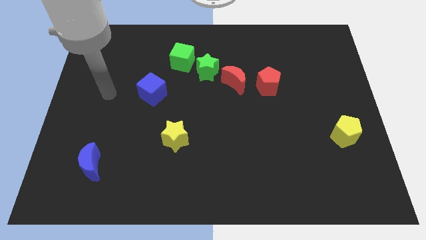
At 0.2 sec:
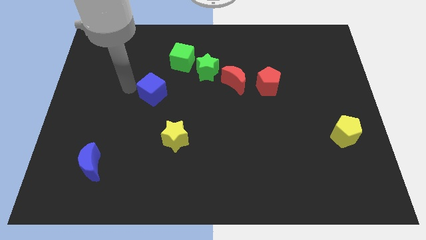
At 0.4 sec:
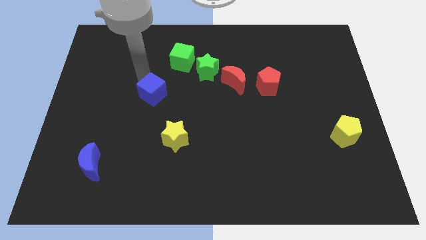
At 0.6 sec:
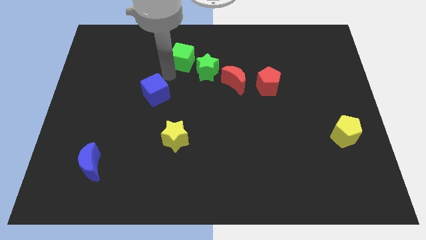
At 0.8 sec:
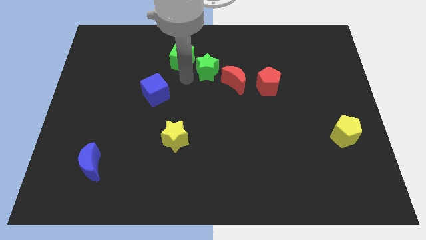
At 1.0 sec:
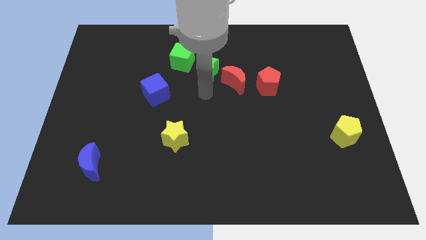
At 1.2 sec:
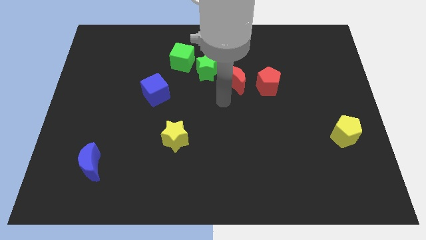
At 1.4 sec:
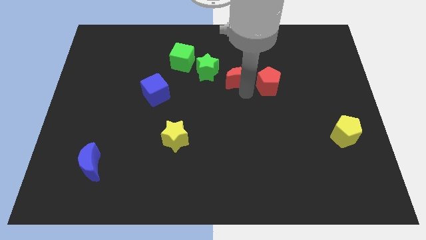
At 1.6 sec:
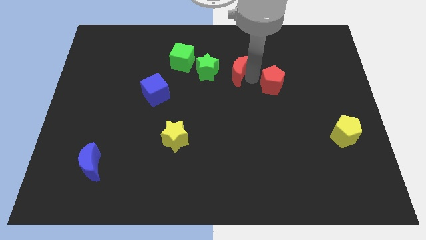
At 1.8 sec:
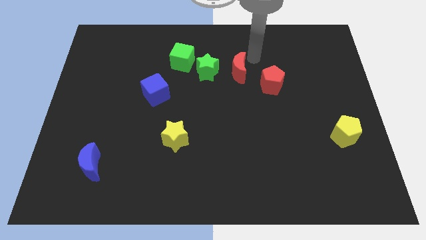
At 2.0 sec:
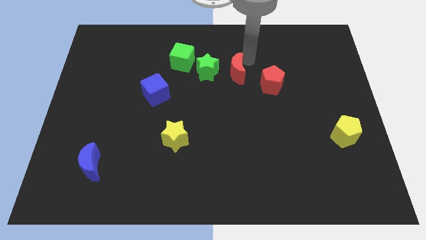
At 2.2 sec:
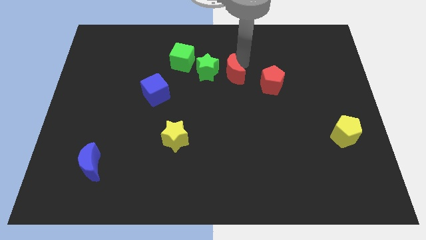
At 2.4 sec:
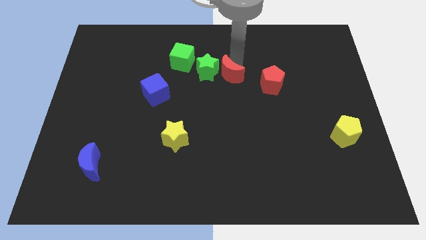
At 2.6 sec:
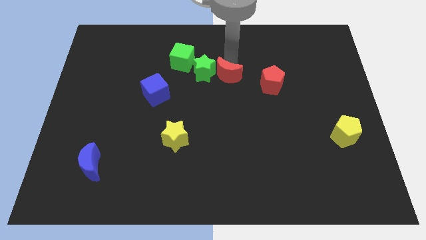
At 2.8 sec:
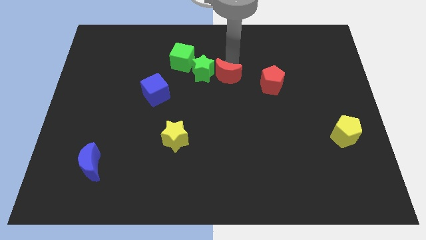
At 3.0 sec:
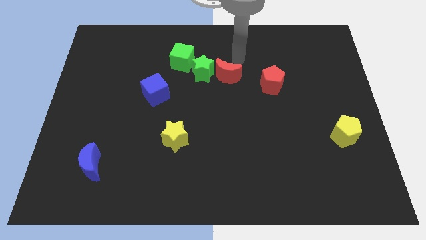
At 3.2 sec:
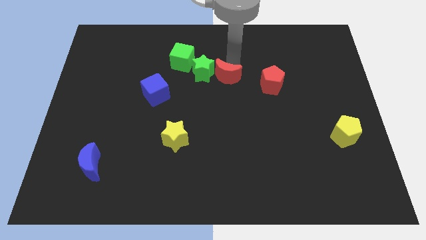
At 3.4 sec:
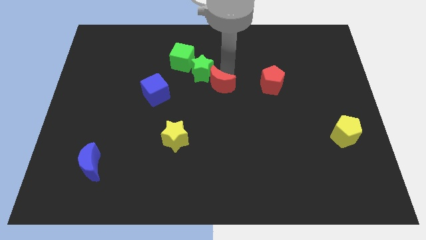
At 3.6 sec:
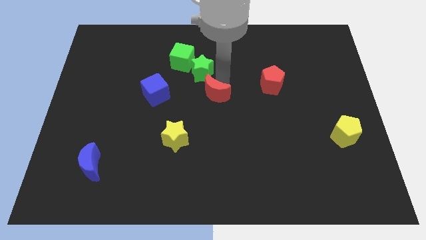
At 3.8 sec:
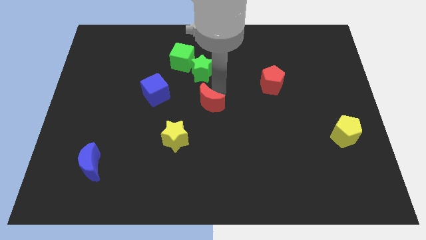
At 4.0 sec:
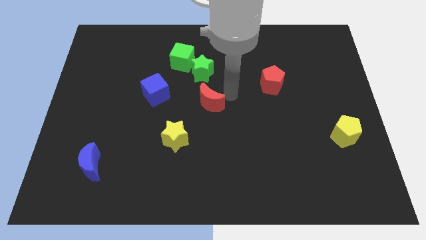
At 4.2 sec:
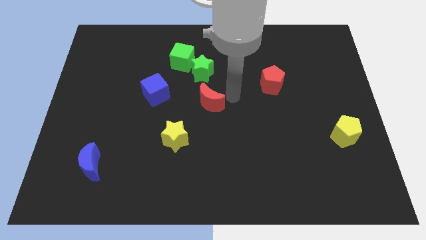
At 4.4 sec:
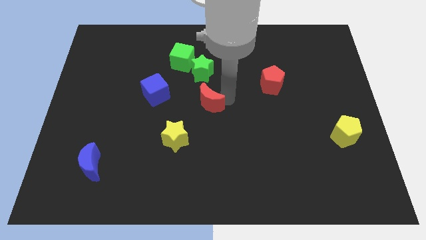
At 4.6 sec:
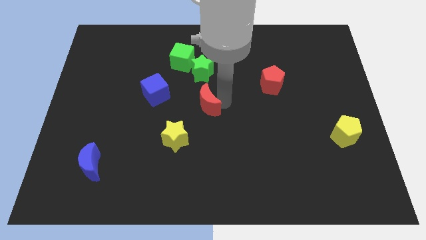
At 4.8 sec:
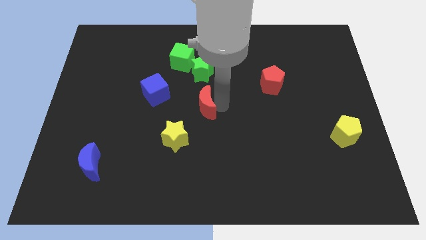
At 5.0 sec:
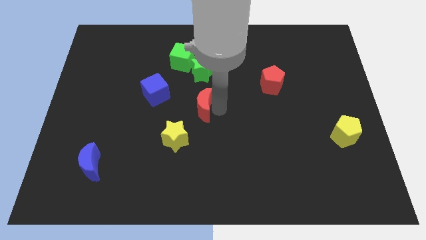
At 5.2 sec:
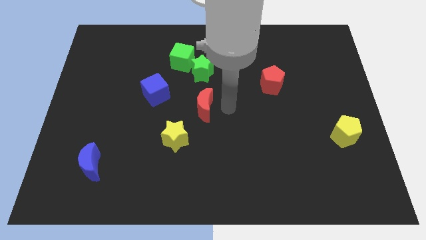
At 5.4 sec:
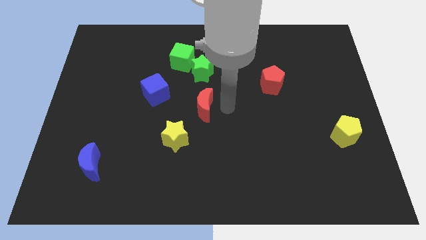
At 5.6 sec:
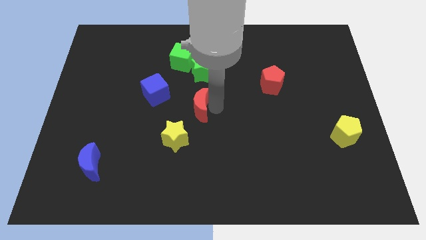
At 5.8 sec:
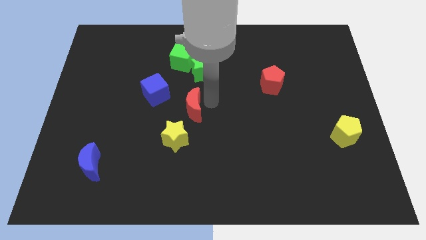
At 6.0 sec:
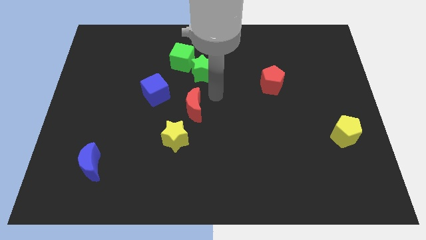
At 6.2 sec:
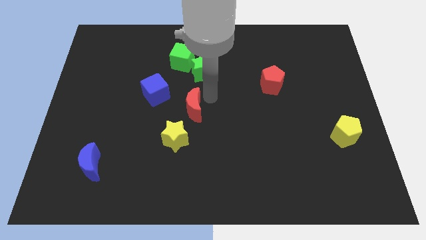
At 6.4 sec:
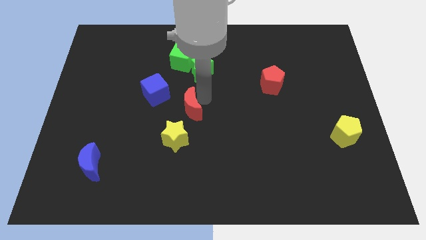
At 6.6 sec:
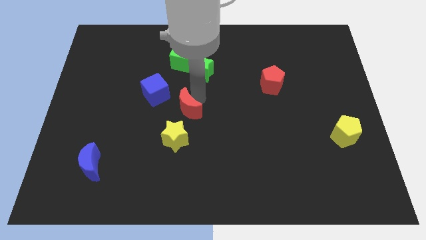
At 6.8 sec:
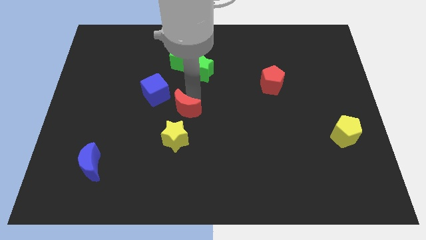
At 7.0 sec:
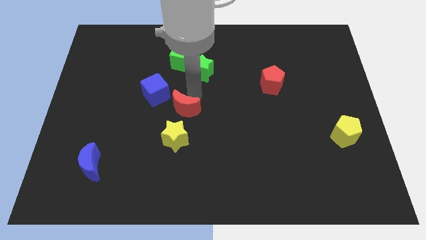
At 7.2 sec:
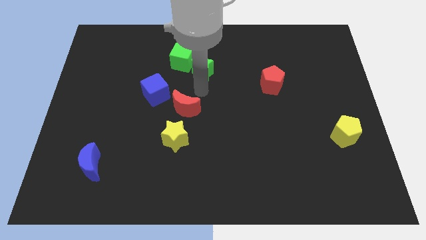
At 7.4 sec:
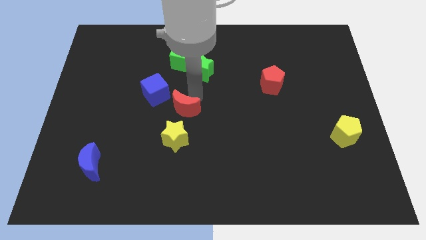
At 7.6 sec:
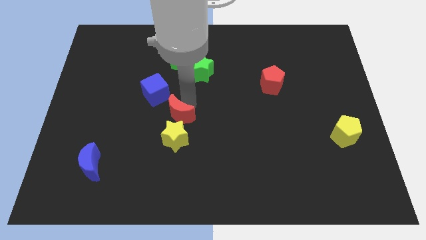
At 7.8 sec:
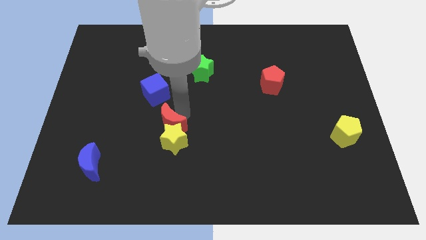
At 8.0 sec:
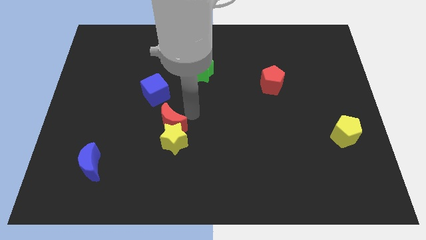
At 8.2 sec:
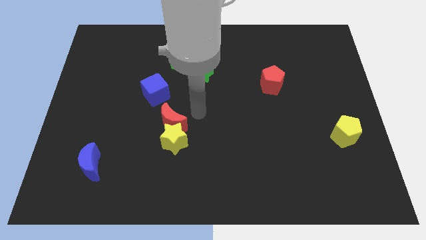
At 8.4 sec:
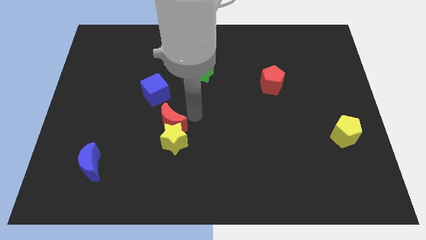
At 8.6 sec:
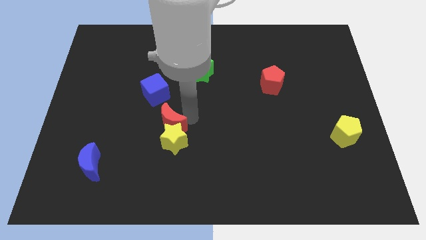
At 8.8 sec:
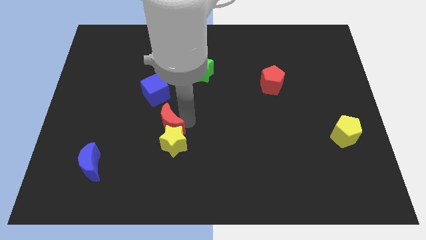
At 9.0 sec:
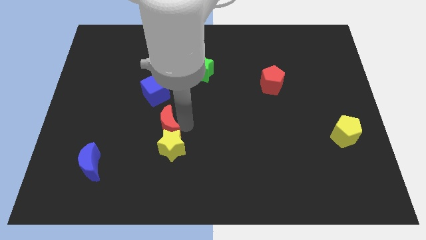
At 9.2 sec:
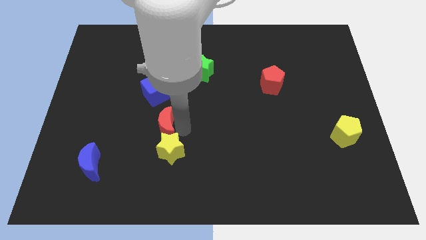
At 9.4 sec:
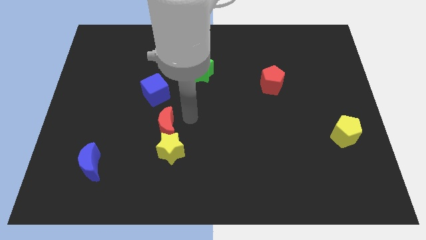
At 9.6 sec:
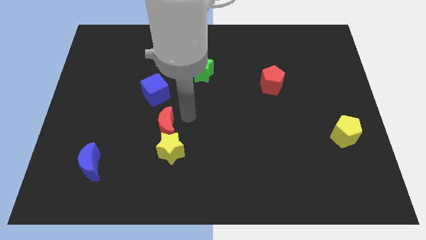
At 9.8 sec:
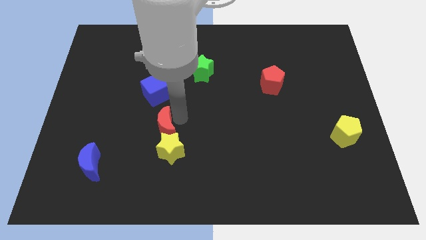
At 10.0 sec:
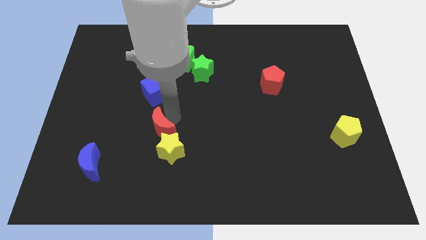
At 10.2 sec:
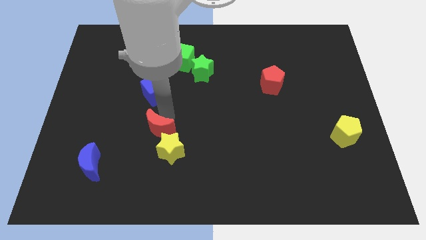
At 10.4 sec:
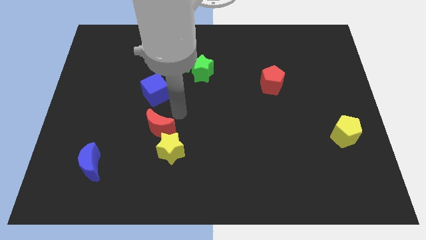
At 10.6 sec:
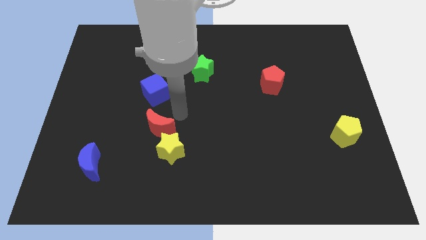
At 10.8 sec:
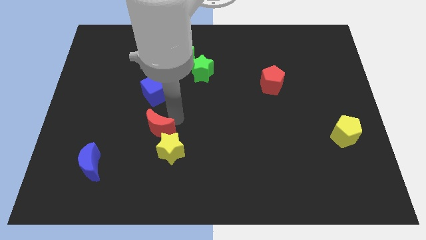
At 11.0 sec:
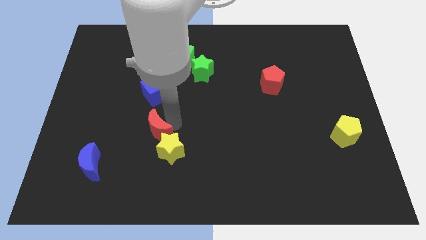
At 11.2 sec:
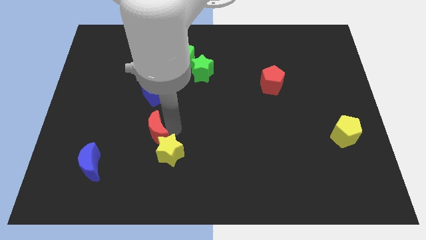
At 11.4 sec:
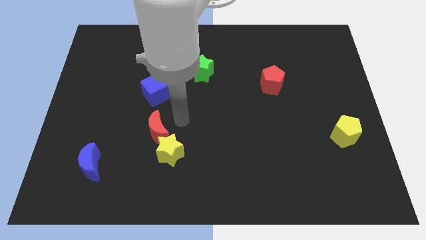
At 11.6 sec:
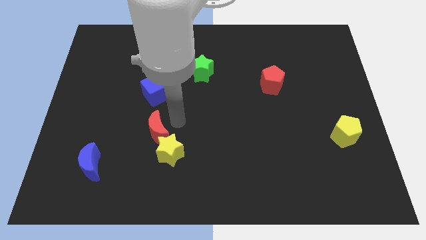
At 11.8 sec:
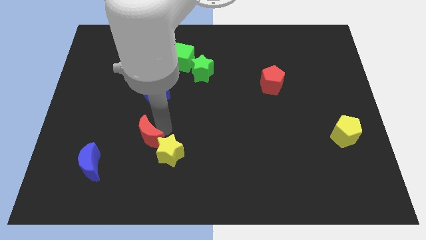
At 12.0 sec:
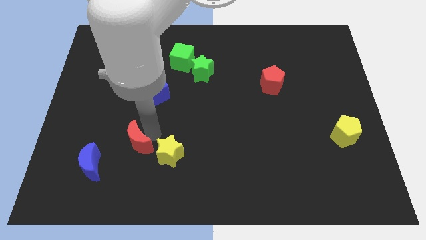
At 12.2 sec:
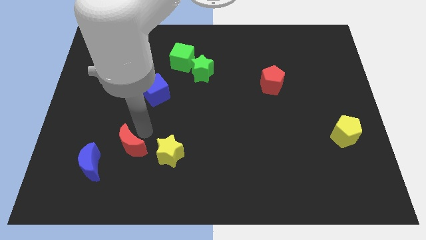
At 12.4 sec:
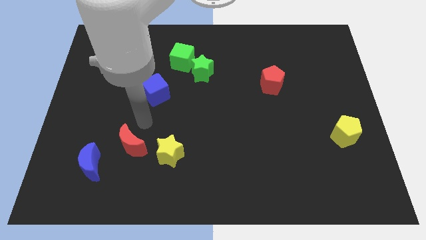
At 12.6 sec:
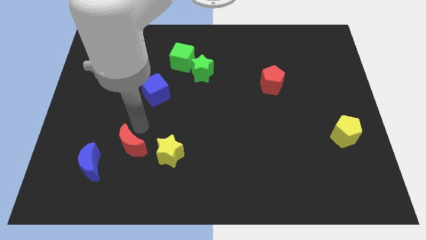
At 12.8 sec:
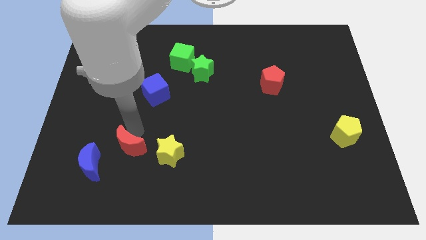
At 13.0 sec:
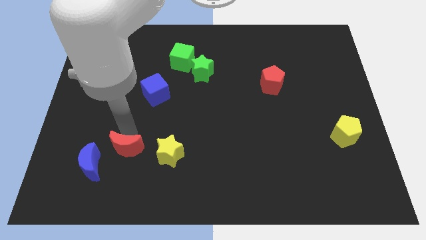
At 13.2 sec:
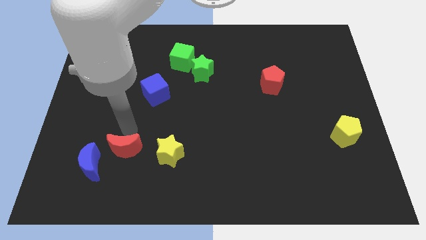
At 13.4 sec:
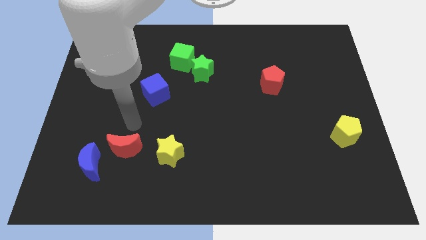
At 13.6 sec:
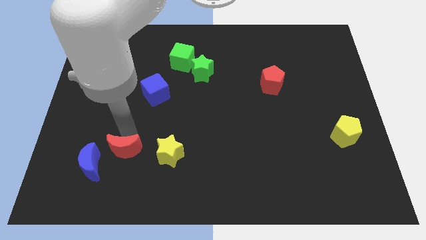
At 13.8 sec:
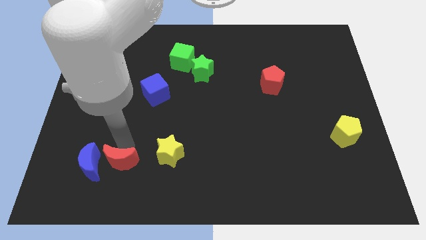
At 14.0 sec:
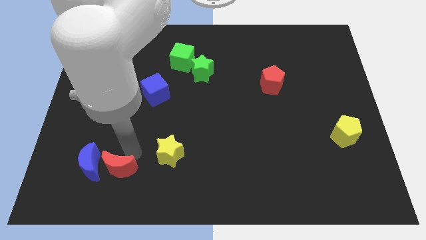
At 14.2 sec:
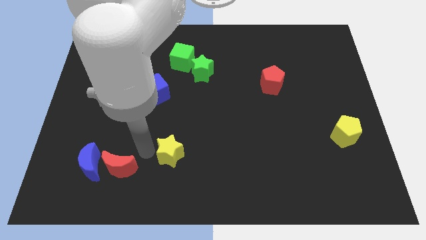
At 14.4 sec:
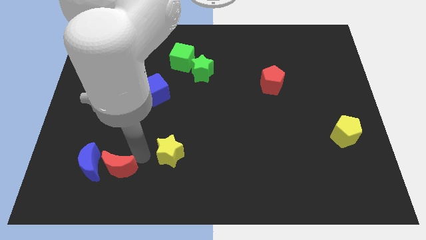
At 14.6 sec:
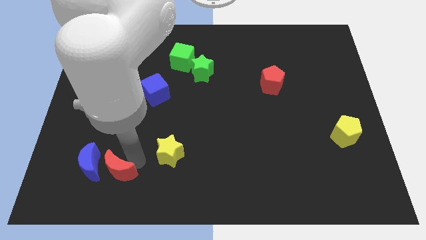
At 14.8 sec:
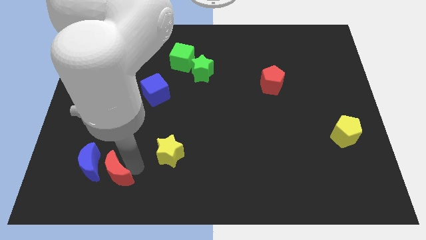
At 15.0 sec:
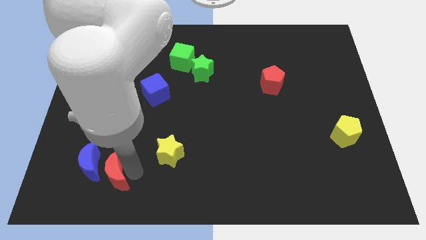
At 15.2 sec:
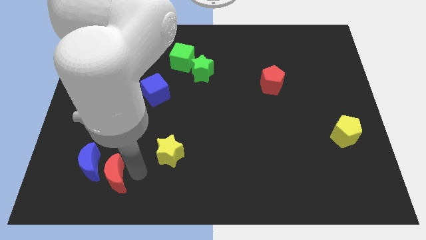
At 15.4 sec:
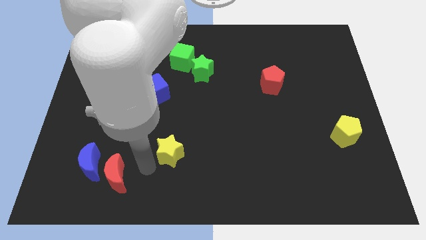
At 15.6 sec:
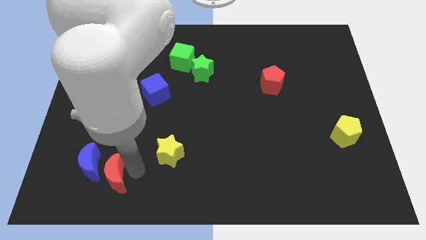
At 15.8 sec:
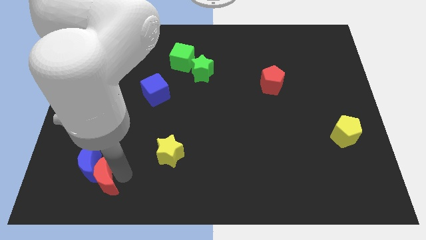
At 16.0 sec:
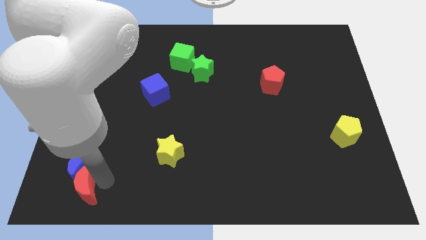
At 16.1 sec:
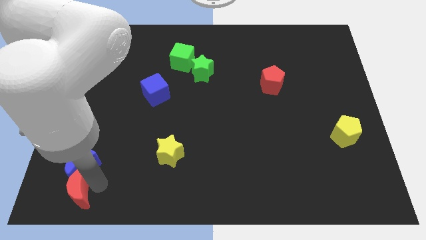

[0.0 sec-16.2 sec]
put the red moon to the bottom left corner
